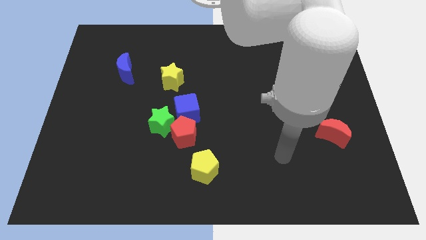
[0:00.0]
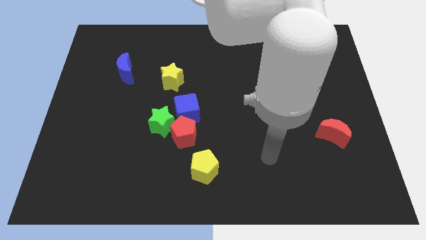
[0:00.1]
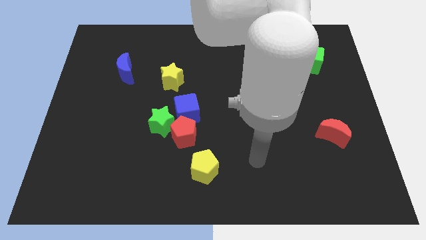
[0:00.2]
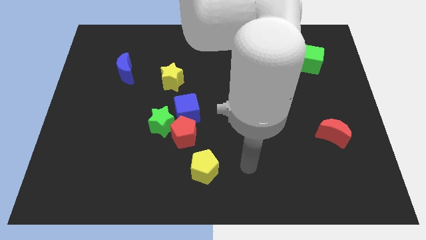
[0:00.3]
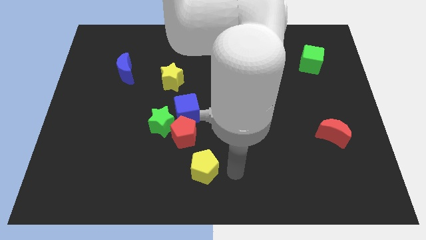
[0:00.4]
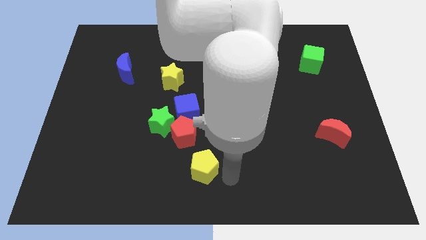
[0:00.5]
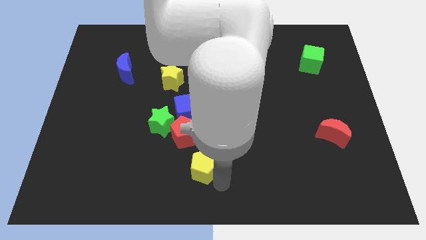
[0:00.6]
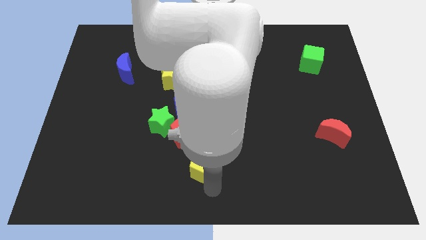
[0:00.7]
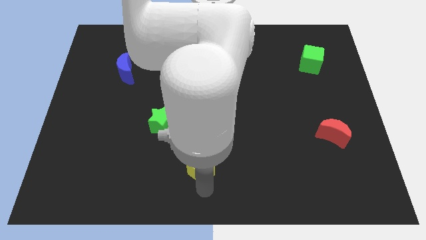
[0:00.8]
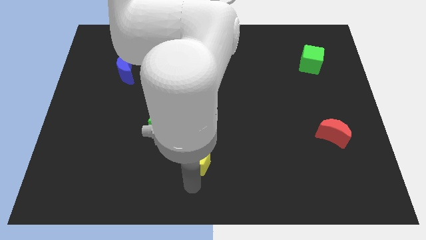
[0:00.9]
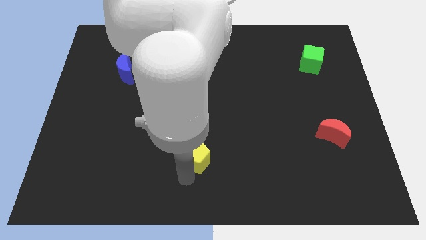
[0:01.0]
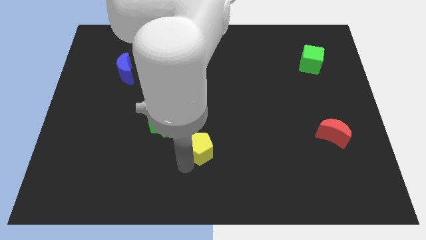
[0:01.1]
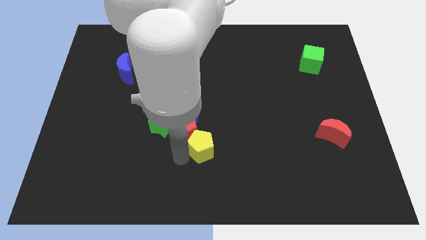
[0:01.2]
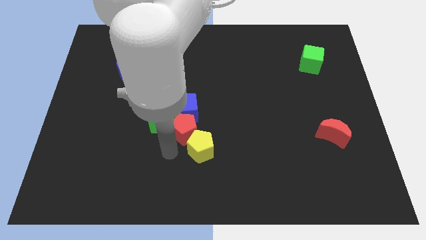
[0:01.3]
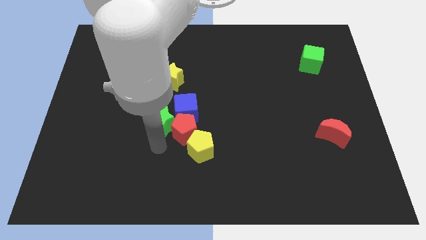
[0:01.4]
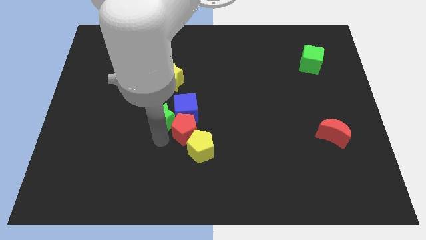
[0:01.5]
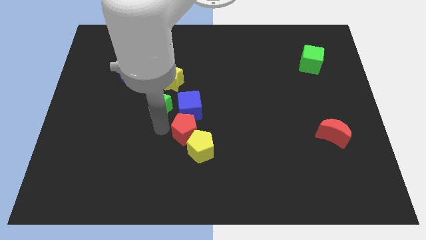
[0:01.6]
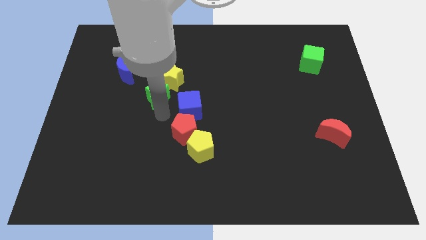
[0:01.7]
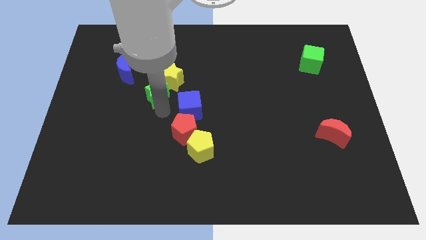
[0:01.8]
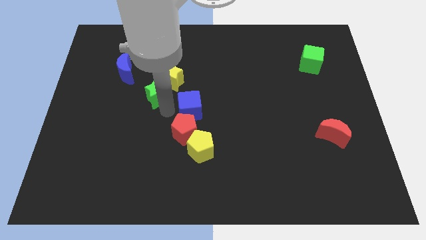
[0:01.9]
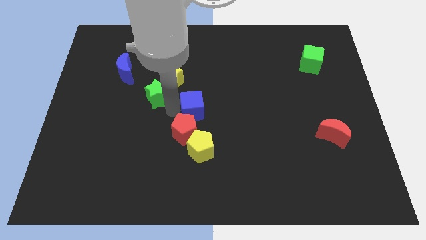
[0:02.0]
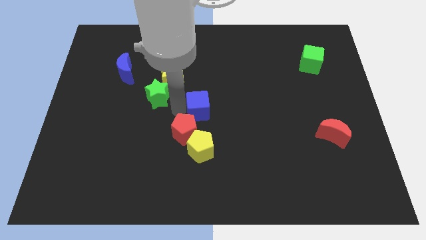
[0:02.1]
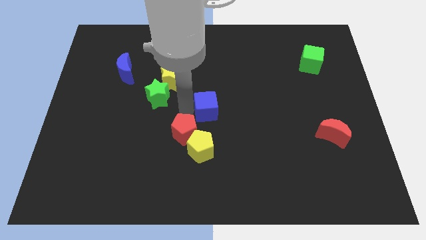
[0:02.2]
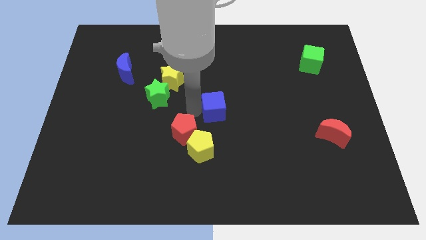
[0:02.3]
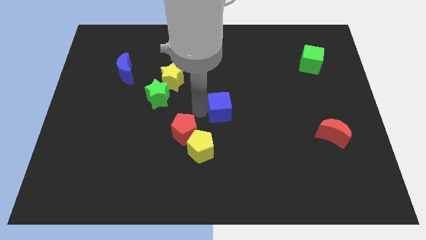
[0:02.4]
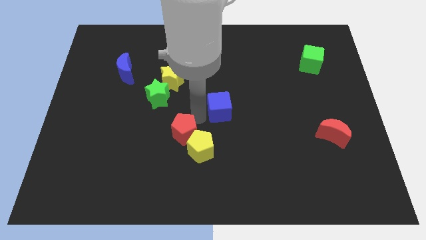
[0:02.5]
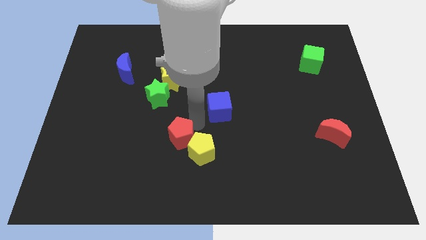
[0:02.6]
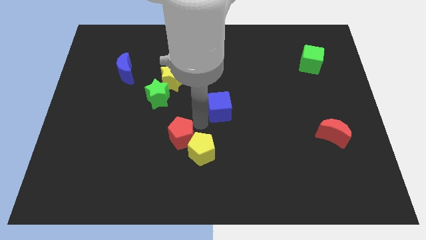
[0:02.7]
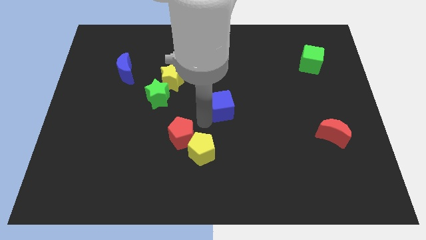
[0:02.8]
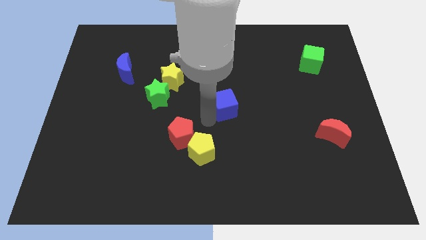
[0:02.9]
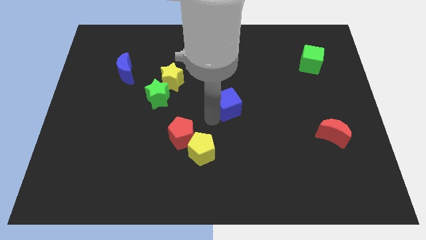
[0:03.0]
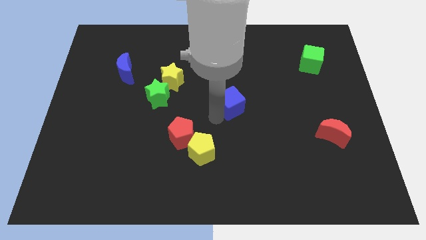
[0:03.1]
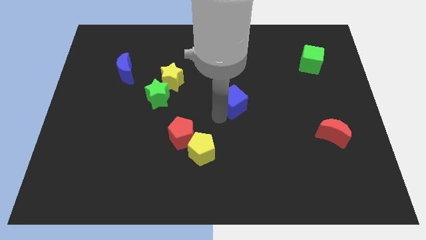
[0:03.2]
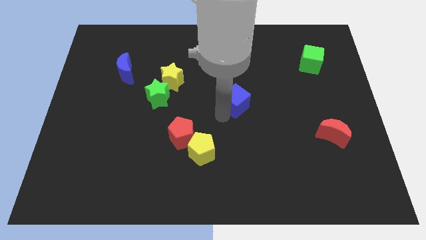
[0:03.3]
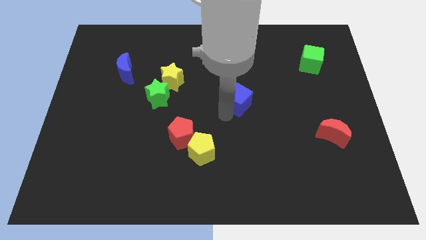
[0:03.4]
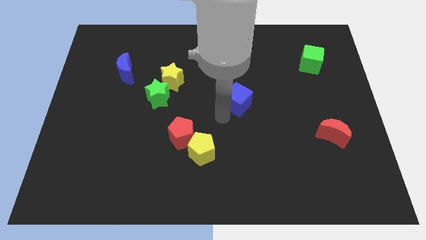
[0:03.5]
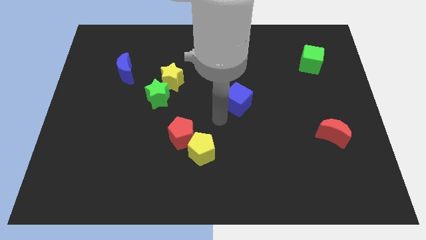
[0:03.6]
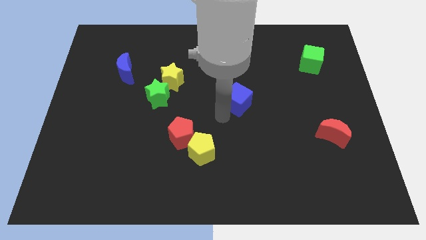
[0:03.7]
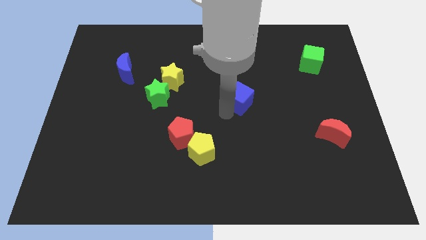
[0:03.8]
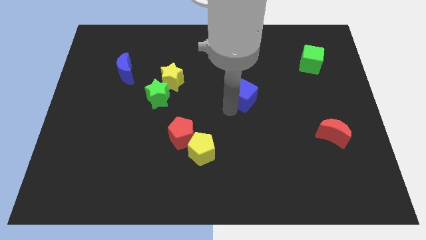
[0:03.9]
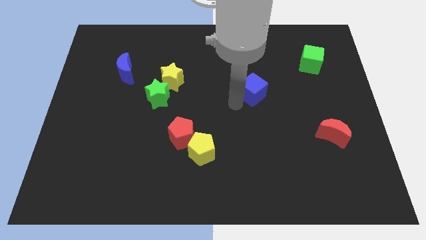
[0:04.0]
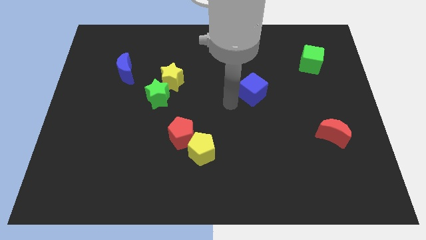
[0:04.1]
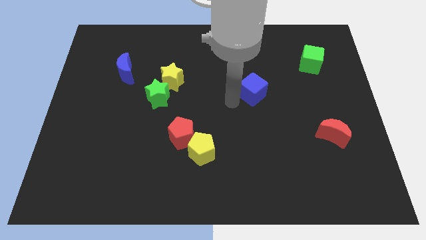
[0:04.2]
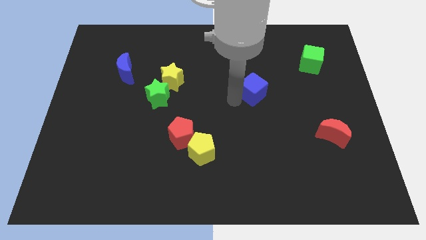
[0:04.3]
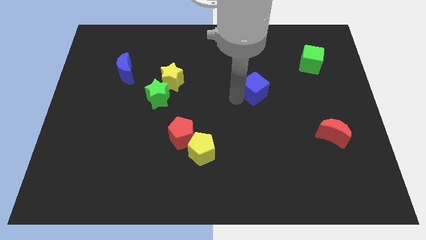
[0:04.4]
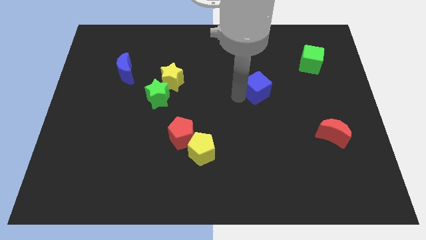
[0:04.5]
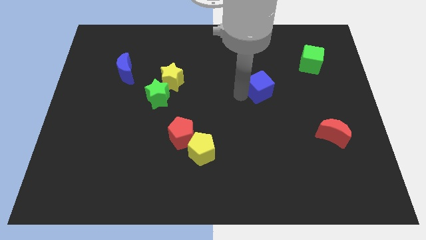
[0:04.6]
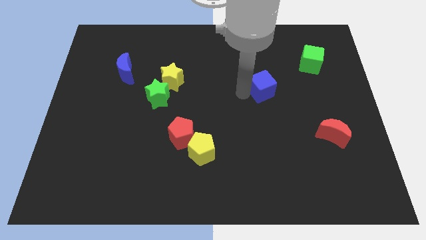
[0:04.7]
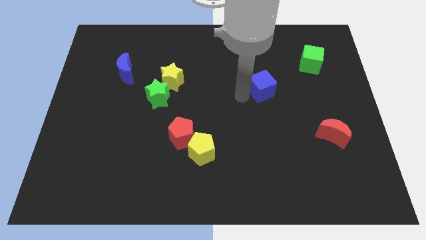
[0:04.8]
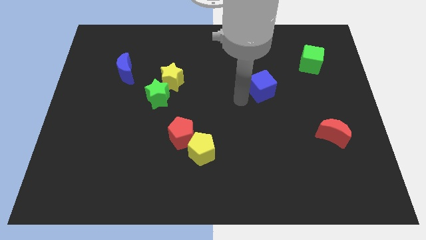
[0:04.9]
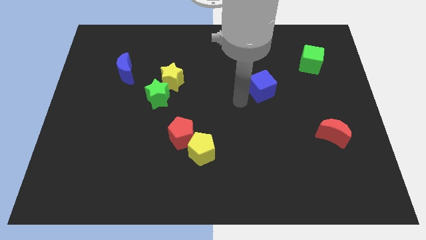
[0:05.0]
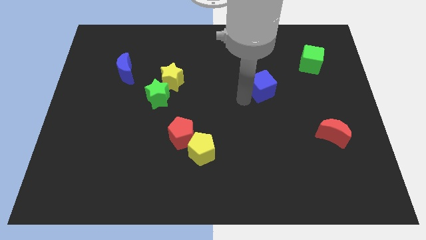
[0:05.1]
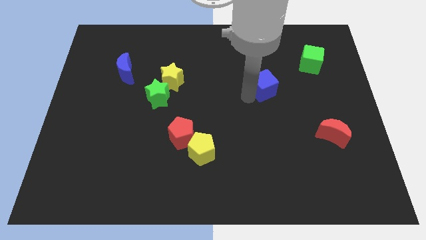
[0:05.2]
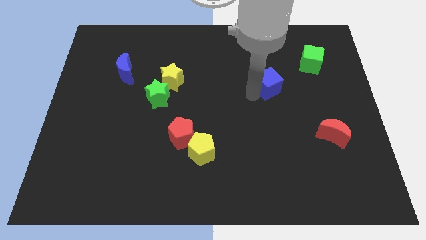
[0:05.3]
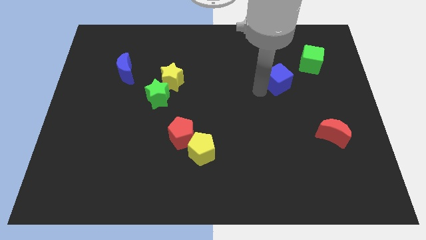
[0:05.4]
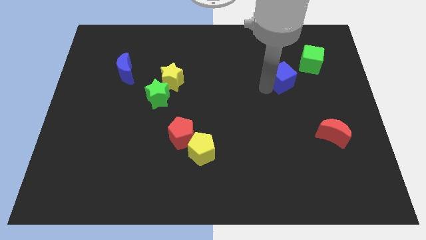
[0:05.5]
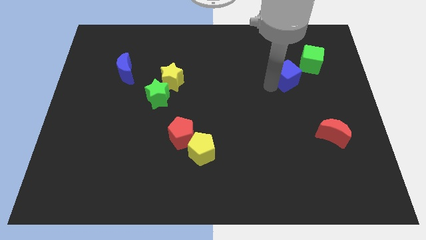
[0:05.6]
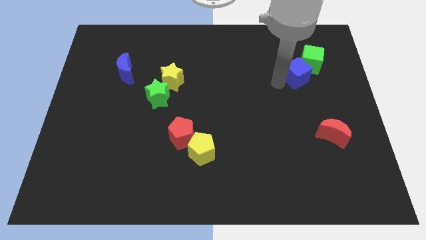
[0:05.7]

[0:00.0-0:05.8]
put the blue cube next to the green cube

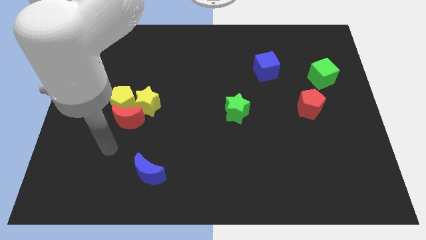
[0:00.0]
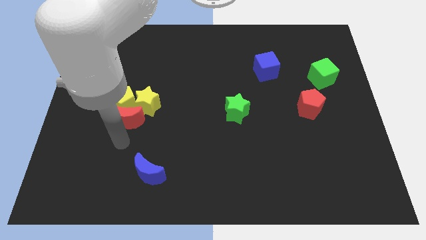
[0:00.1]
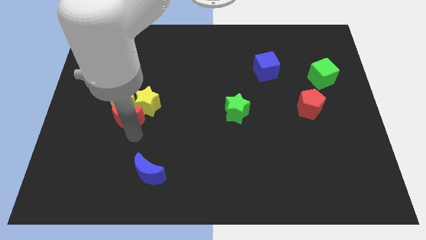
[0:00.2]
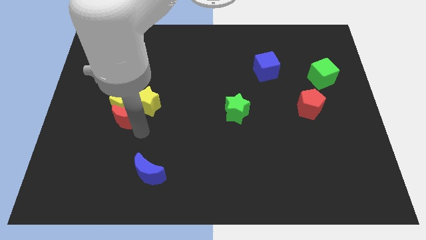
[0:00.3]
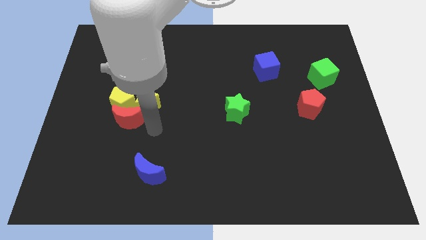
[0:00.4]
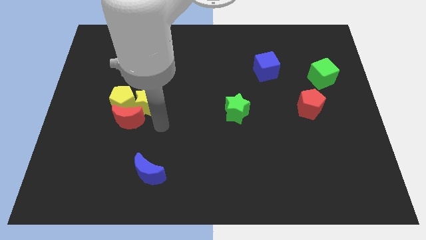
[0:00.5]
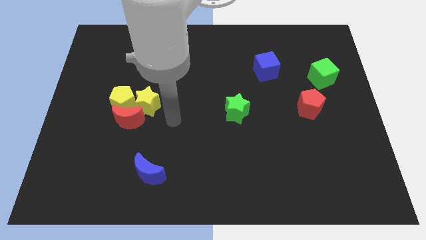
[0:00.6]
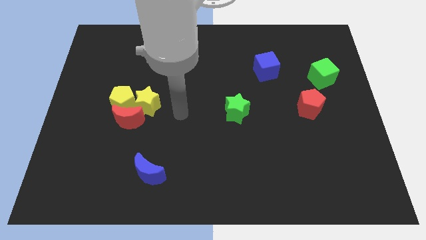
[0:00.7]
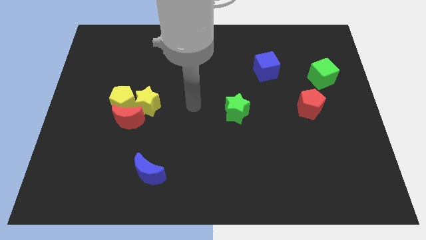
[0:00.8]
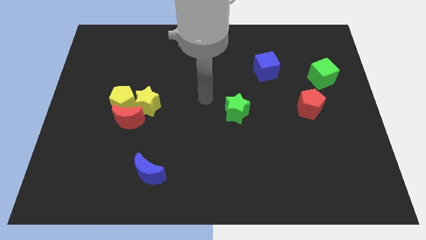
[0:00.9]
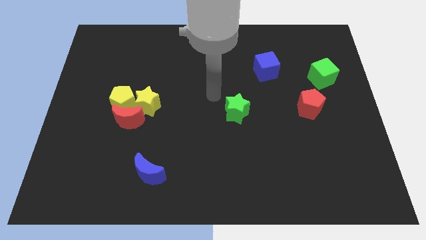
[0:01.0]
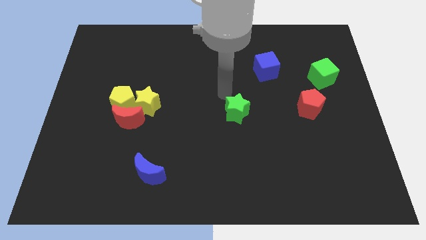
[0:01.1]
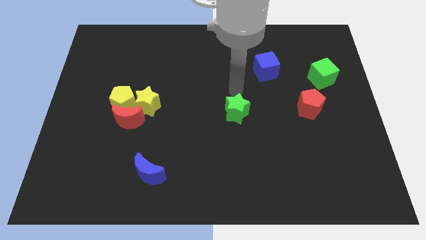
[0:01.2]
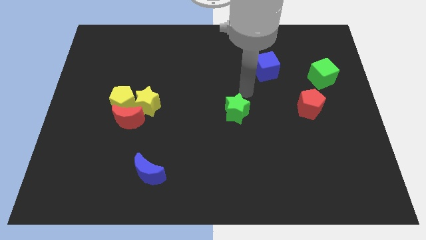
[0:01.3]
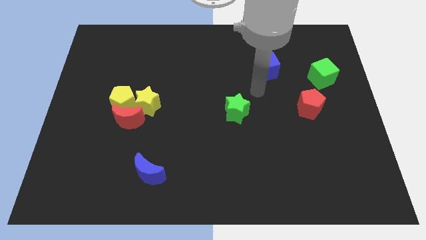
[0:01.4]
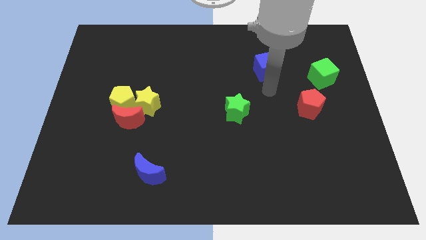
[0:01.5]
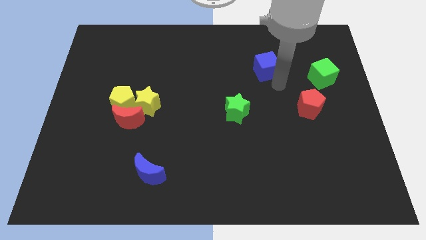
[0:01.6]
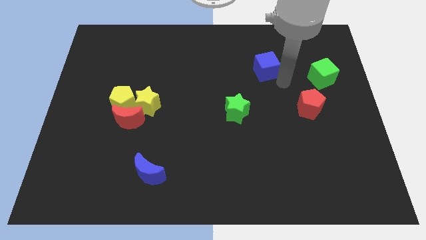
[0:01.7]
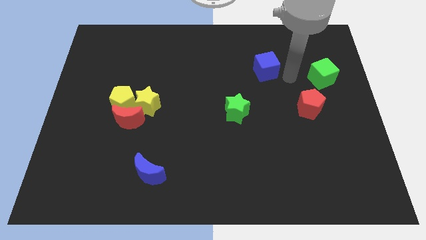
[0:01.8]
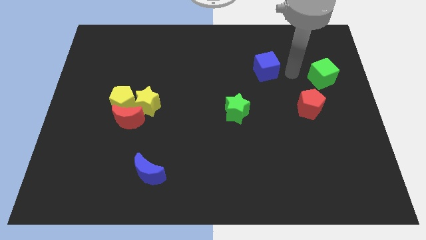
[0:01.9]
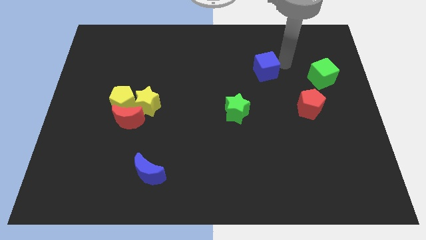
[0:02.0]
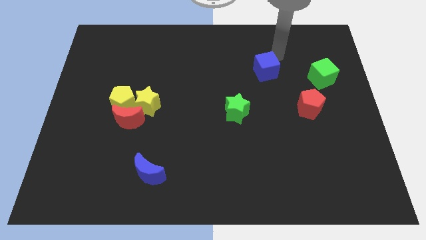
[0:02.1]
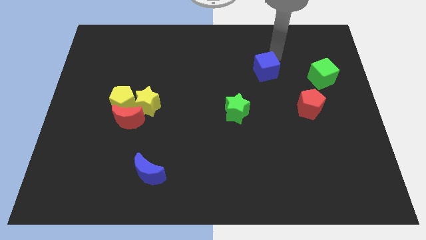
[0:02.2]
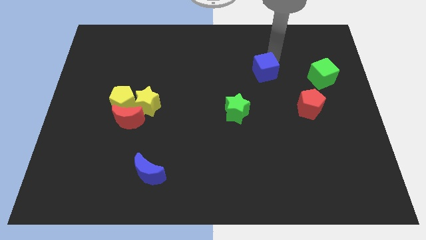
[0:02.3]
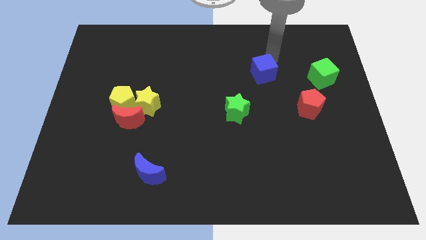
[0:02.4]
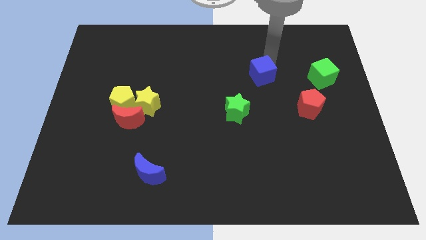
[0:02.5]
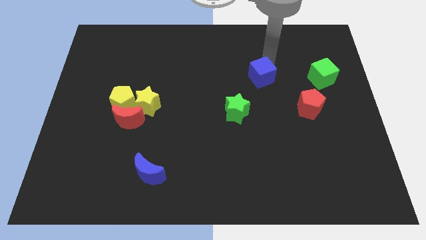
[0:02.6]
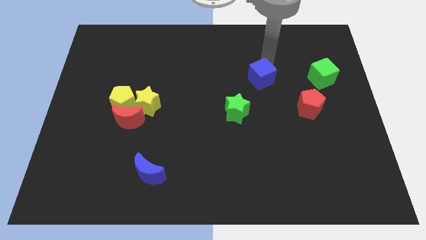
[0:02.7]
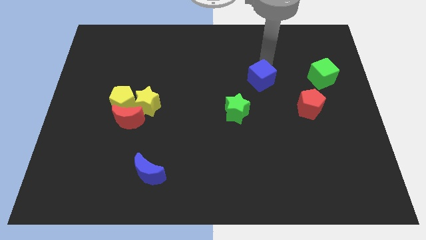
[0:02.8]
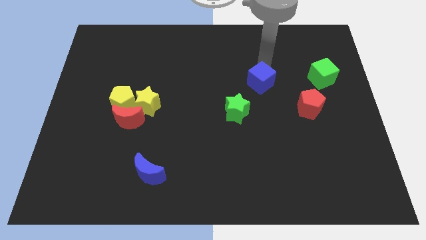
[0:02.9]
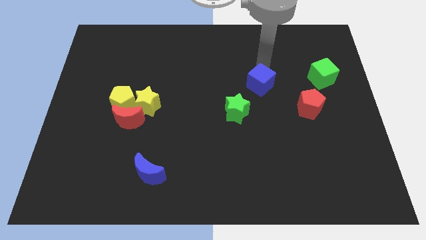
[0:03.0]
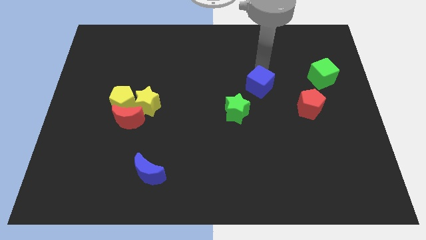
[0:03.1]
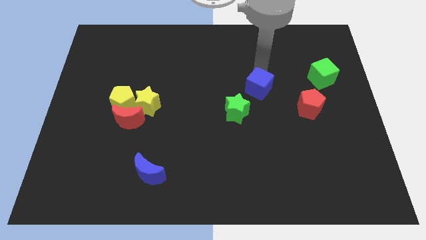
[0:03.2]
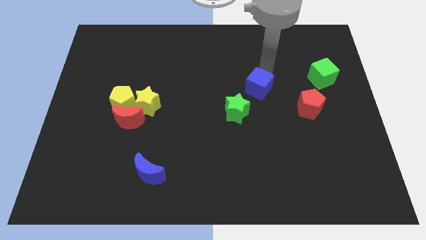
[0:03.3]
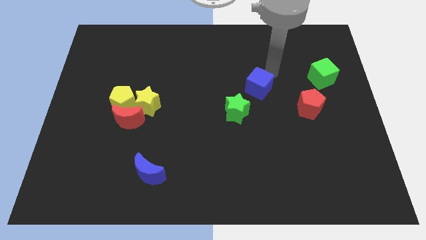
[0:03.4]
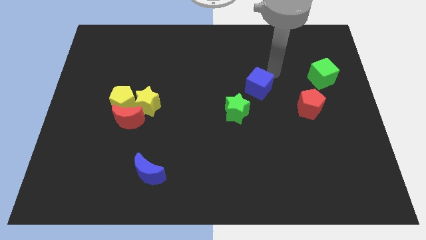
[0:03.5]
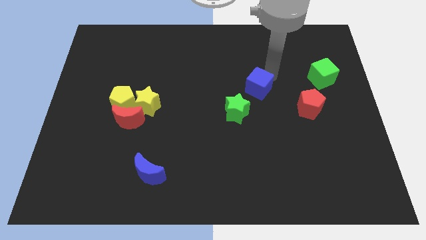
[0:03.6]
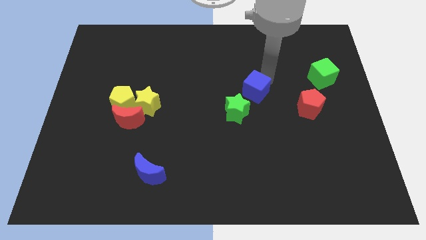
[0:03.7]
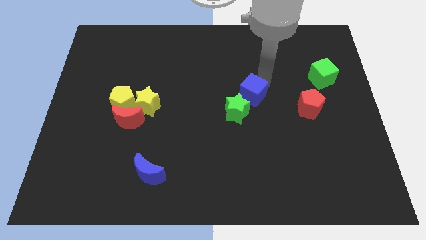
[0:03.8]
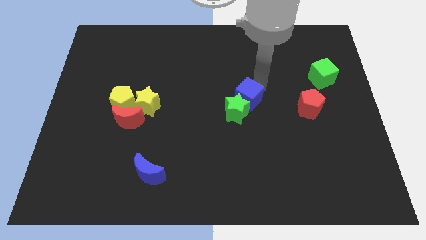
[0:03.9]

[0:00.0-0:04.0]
put the blue cube towards the green star
